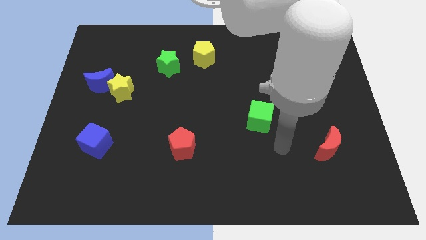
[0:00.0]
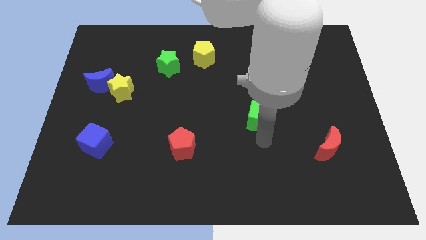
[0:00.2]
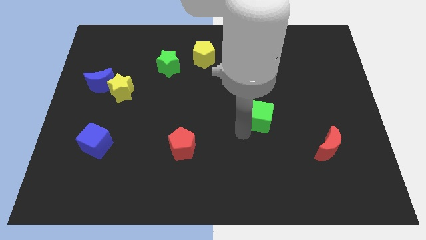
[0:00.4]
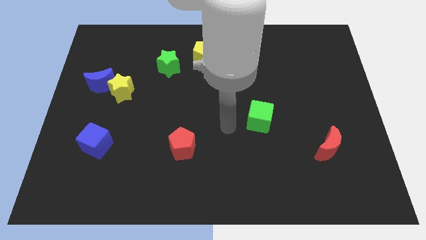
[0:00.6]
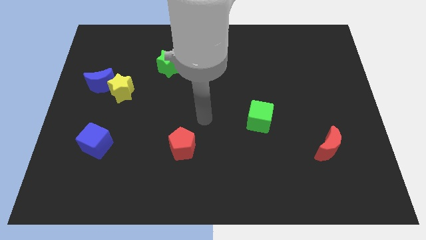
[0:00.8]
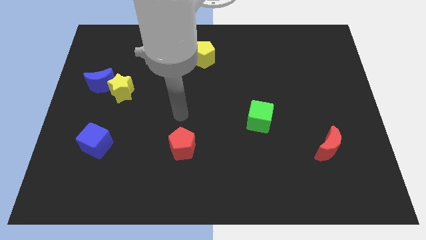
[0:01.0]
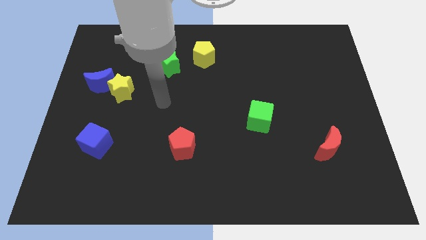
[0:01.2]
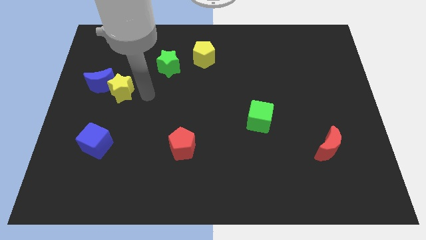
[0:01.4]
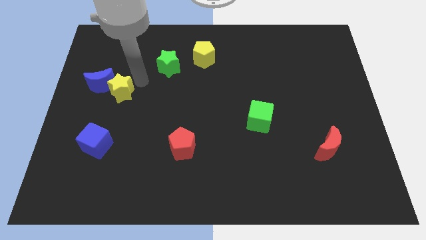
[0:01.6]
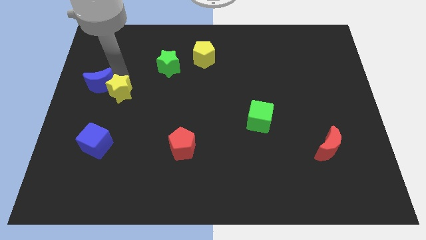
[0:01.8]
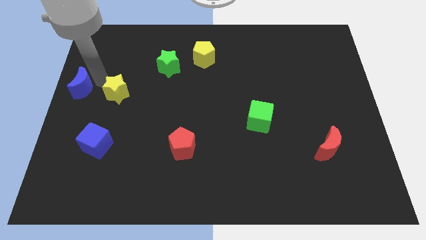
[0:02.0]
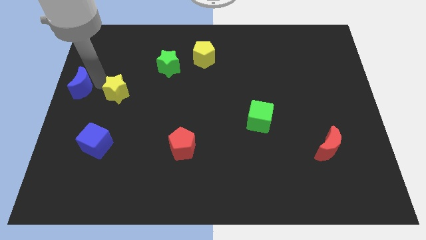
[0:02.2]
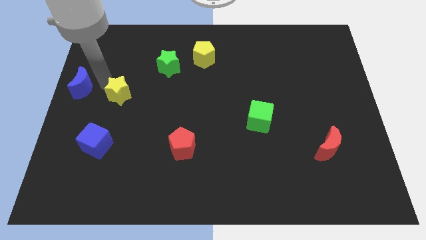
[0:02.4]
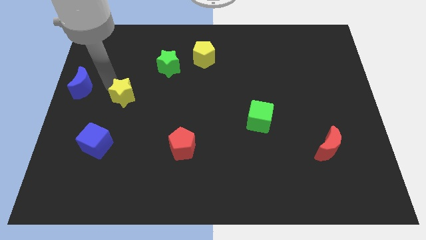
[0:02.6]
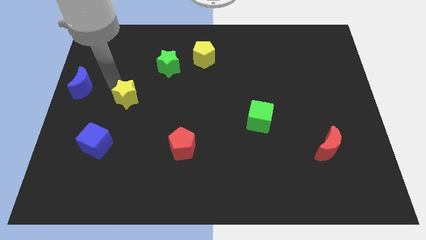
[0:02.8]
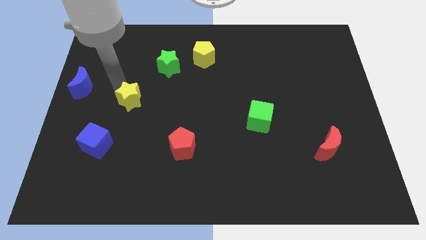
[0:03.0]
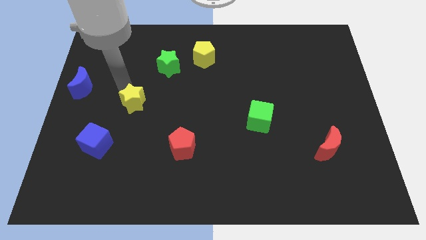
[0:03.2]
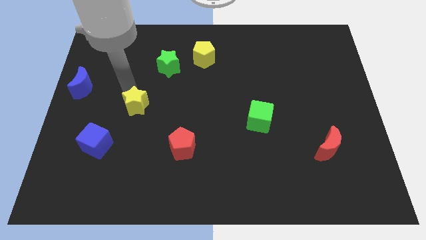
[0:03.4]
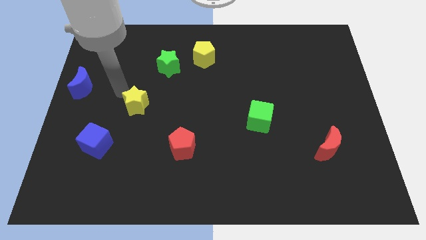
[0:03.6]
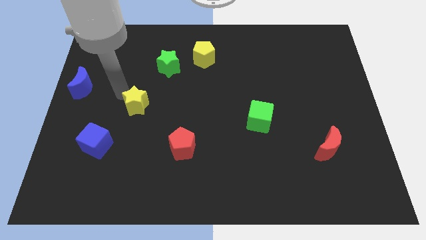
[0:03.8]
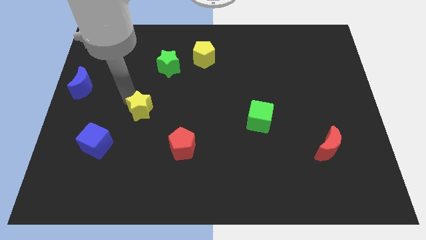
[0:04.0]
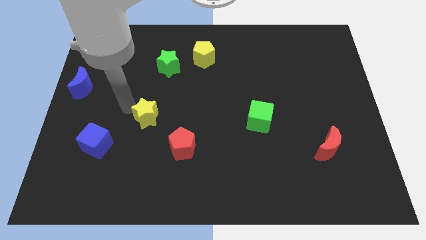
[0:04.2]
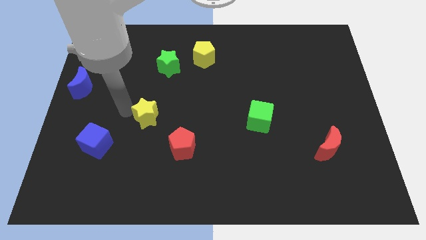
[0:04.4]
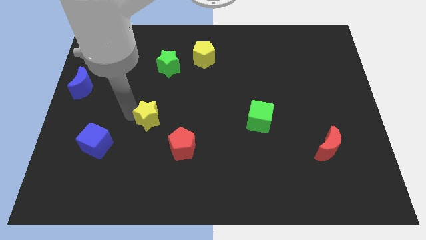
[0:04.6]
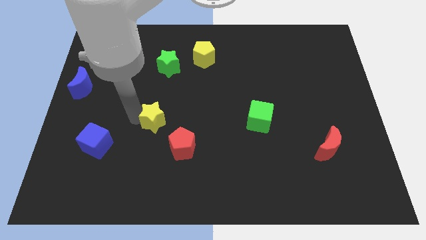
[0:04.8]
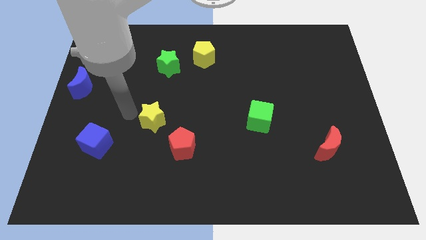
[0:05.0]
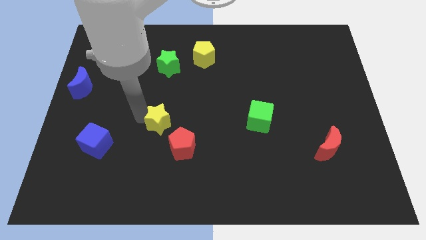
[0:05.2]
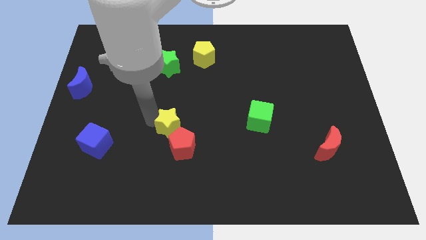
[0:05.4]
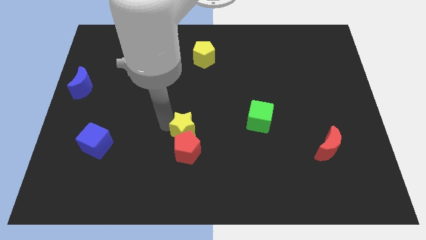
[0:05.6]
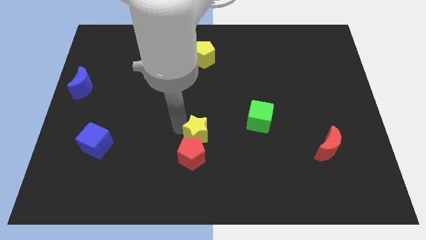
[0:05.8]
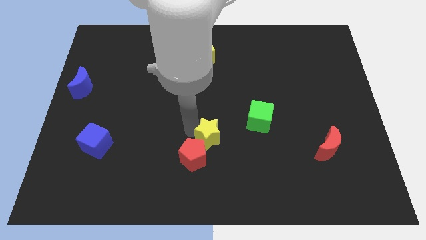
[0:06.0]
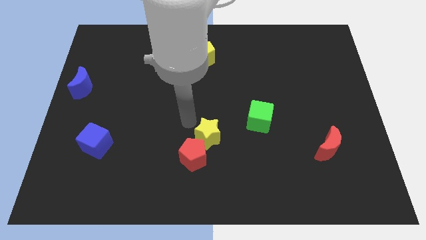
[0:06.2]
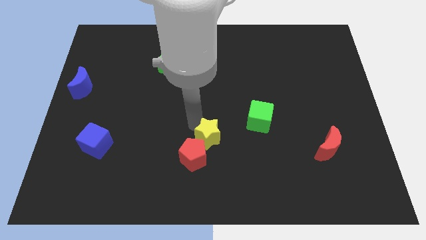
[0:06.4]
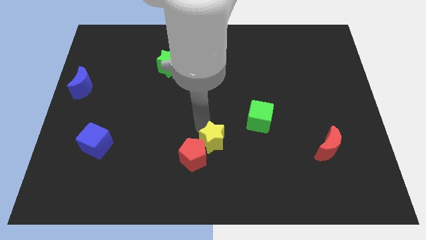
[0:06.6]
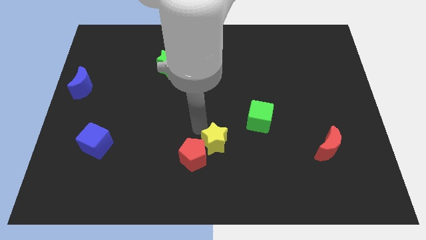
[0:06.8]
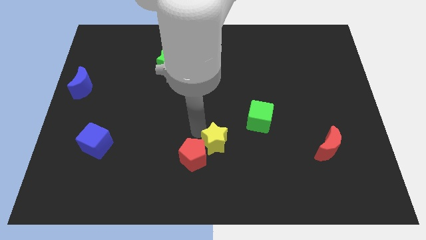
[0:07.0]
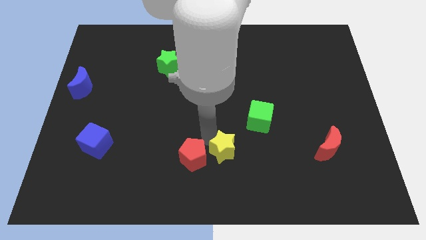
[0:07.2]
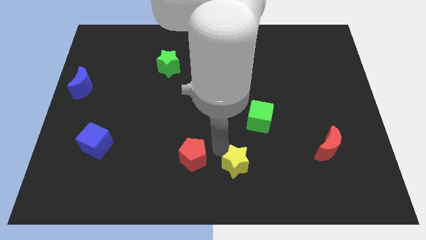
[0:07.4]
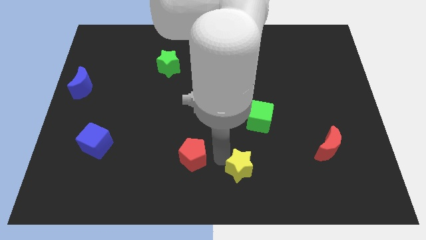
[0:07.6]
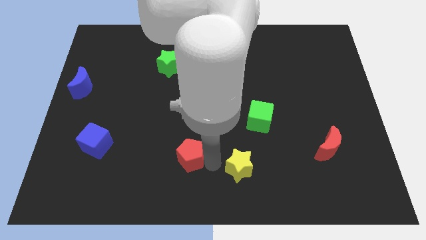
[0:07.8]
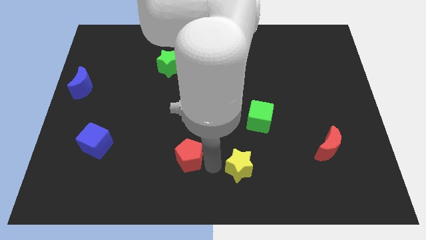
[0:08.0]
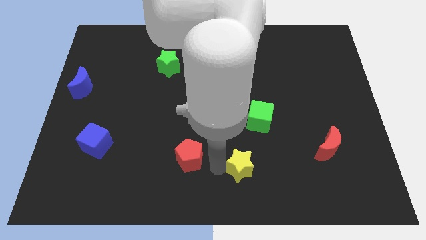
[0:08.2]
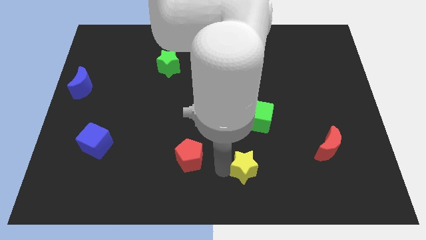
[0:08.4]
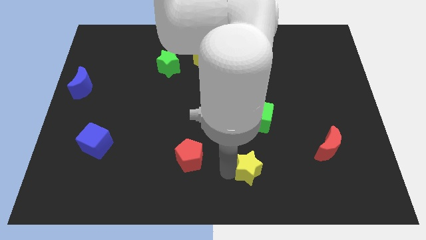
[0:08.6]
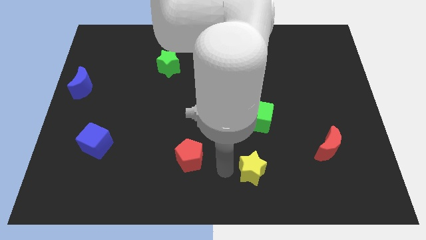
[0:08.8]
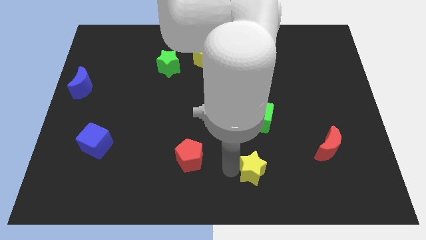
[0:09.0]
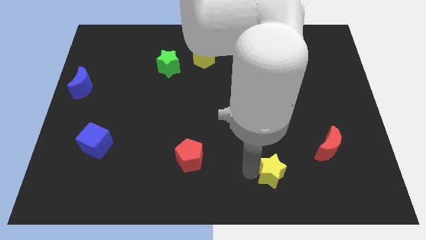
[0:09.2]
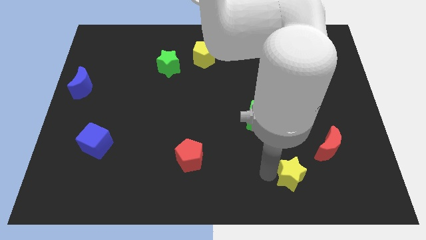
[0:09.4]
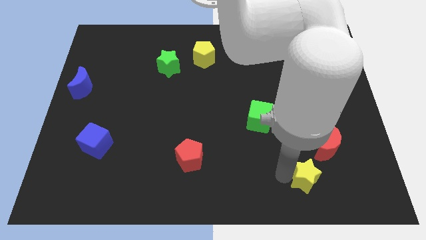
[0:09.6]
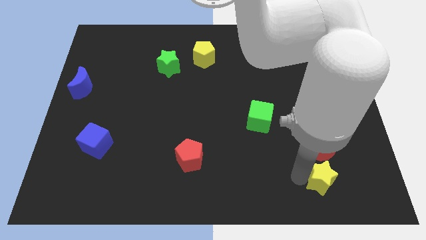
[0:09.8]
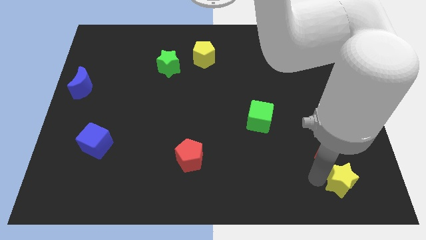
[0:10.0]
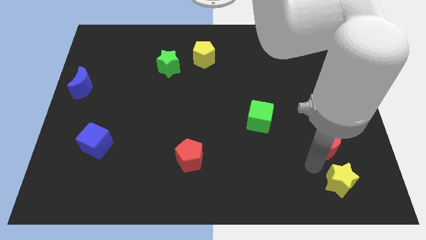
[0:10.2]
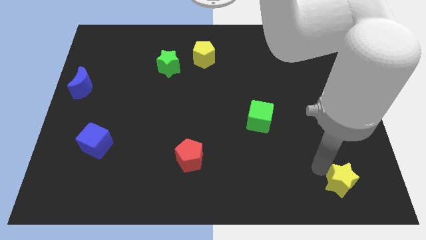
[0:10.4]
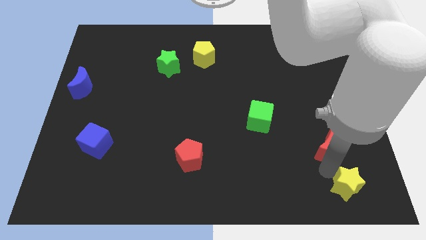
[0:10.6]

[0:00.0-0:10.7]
slide the yellow star to the bottom right corner

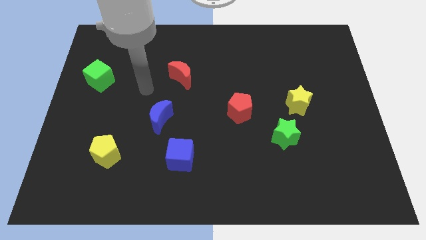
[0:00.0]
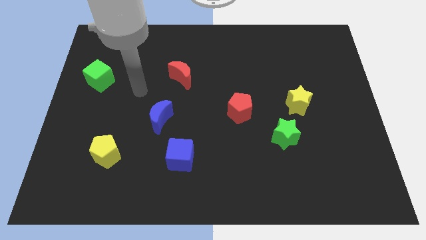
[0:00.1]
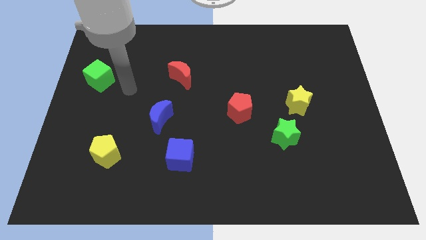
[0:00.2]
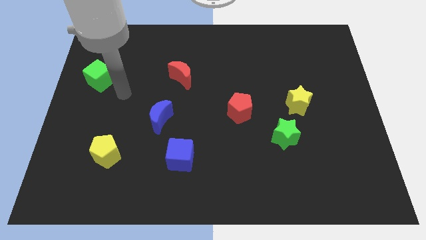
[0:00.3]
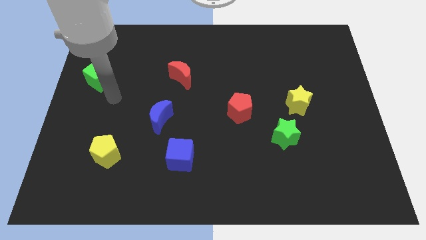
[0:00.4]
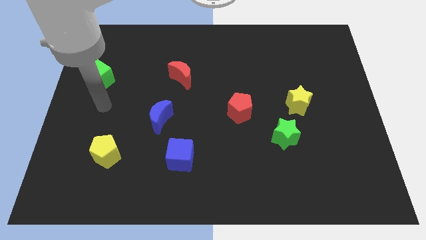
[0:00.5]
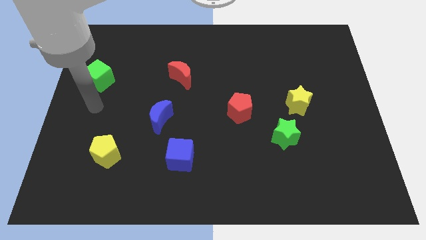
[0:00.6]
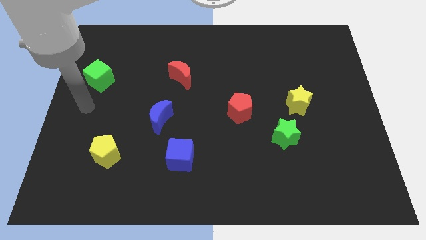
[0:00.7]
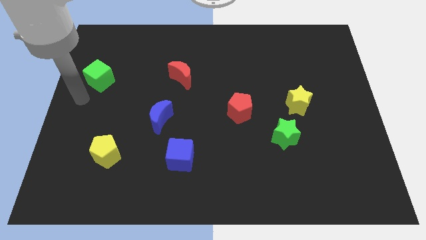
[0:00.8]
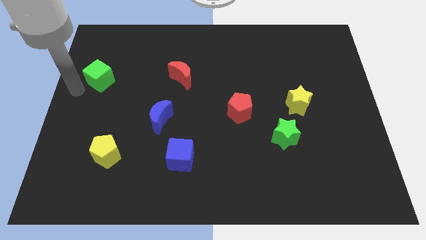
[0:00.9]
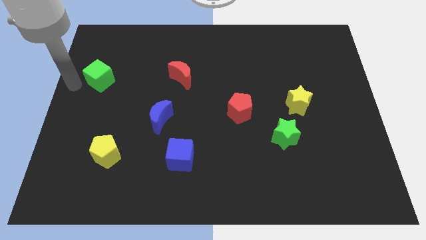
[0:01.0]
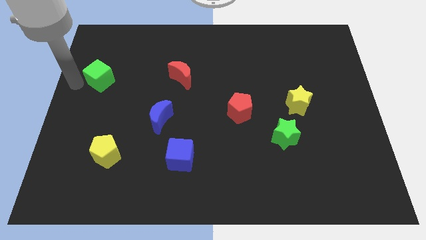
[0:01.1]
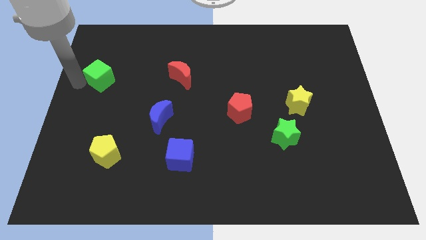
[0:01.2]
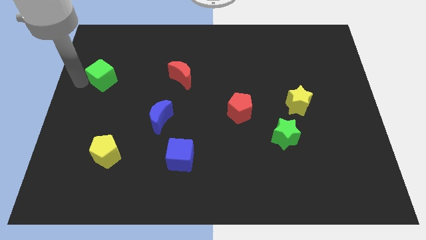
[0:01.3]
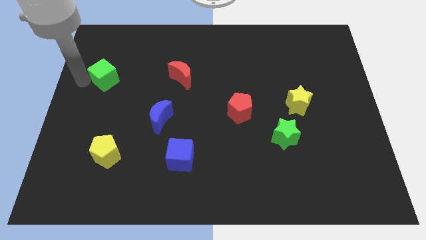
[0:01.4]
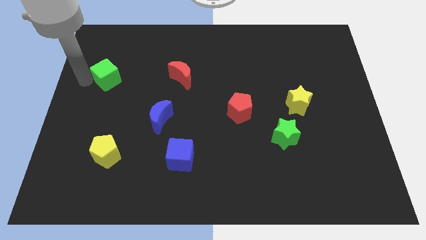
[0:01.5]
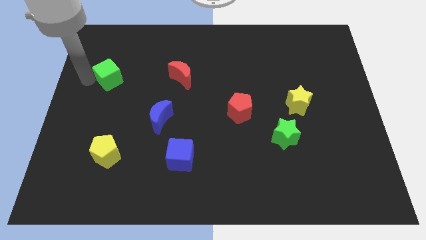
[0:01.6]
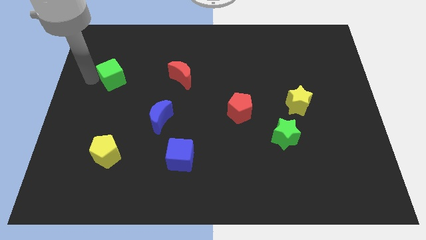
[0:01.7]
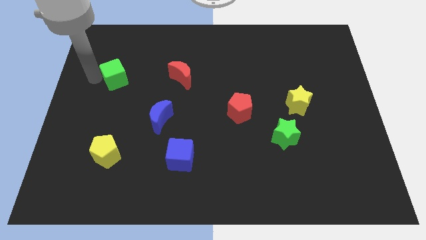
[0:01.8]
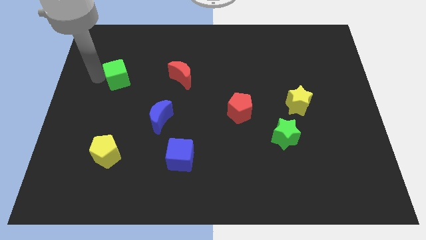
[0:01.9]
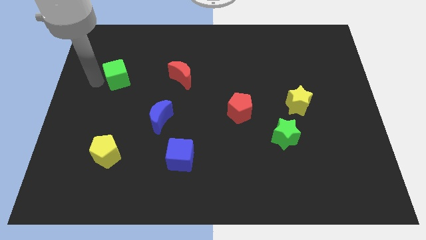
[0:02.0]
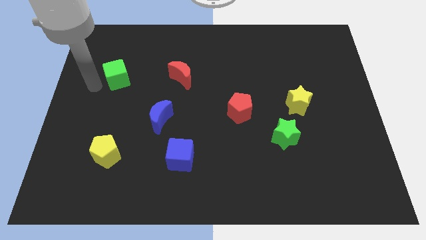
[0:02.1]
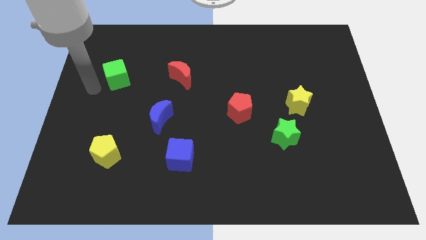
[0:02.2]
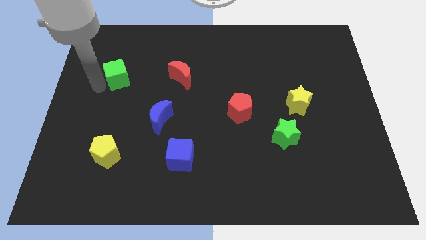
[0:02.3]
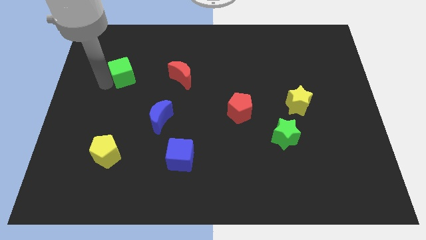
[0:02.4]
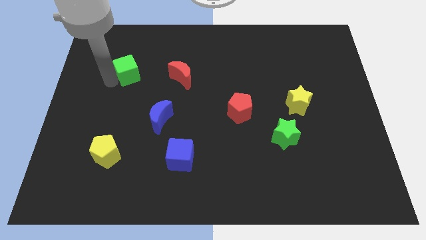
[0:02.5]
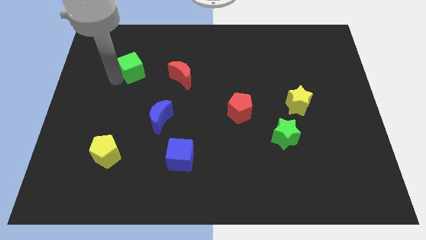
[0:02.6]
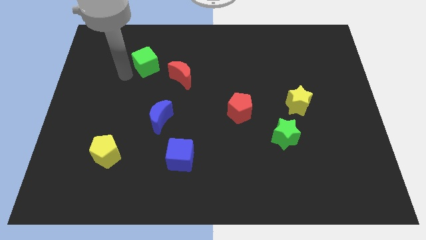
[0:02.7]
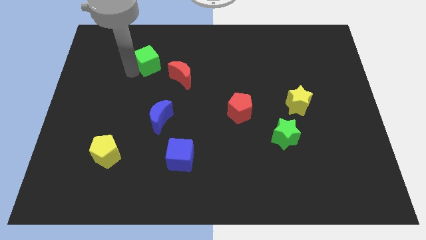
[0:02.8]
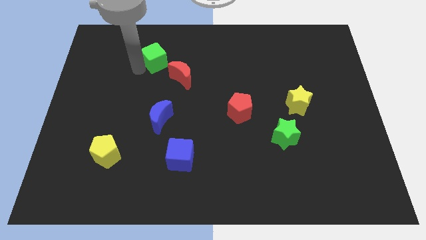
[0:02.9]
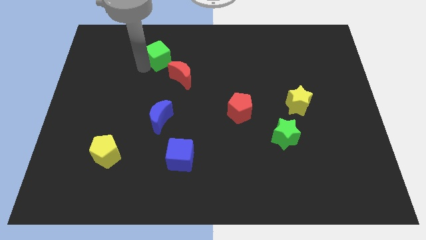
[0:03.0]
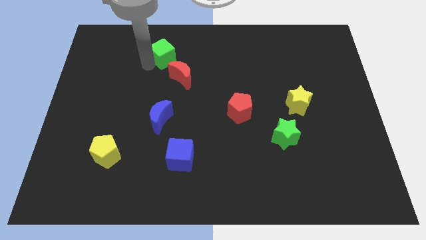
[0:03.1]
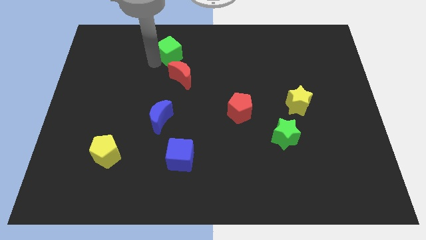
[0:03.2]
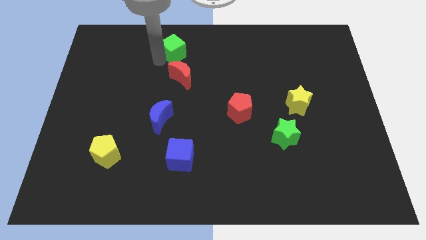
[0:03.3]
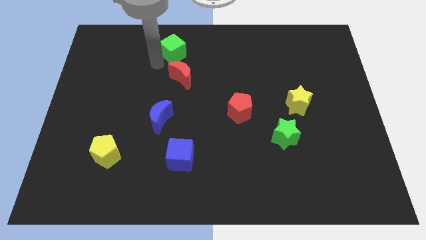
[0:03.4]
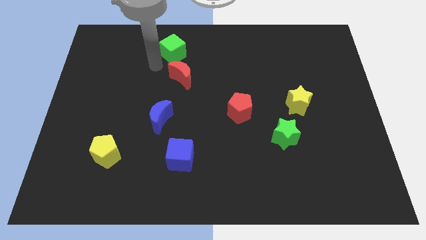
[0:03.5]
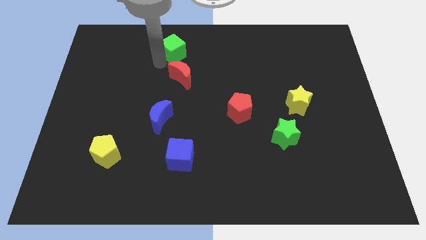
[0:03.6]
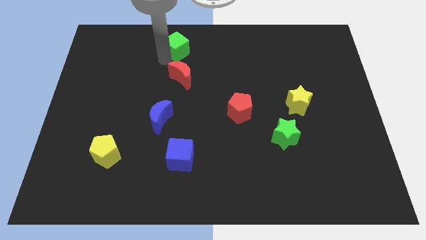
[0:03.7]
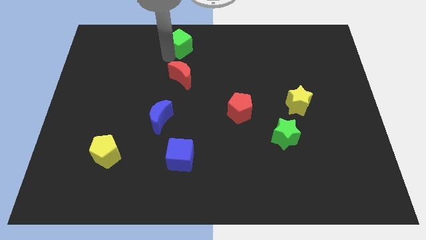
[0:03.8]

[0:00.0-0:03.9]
put the green cube to the towards your base
